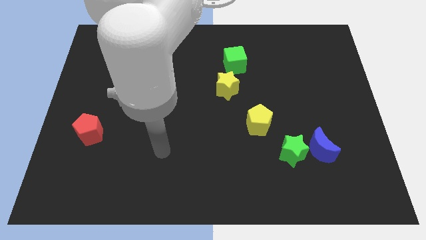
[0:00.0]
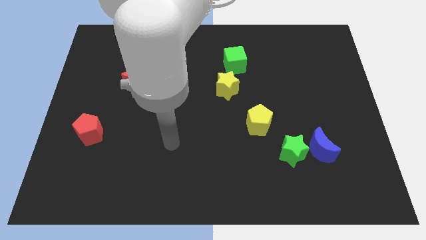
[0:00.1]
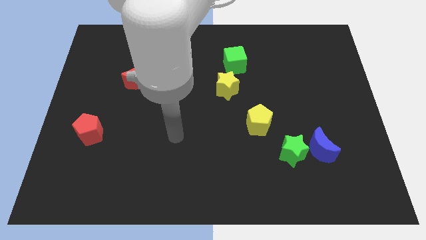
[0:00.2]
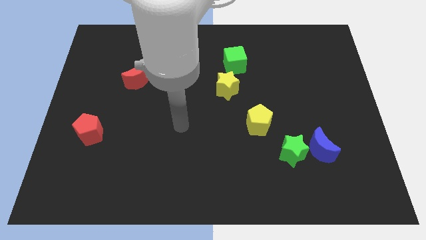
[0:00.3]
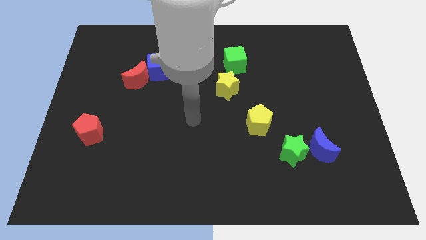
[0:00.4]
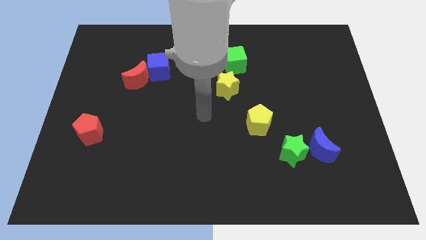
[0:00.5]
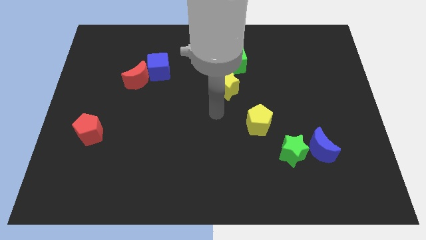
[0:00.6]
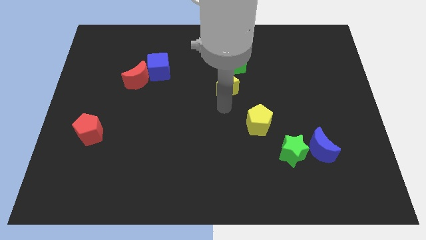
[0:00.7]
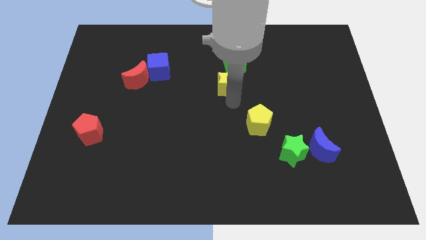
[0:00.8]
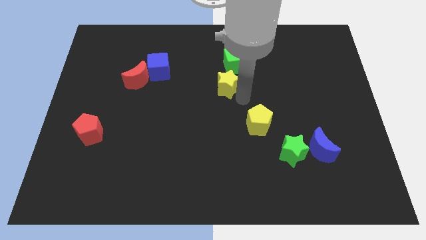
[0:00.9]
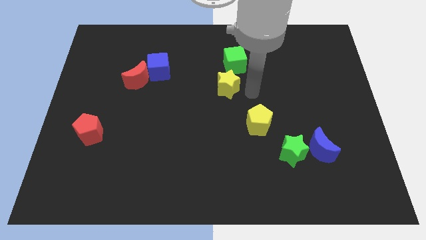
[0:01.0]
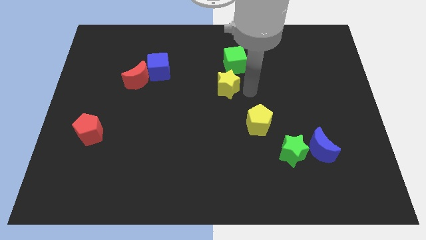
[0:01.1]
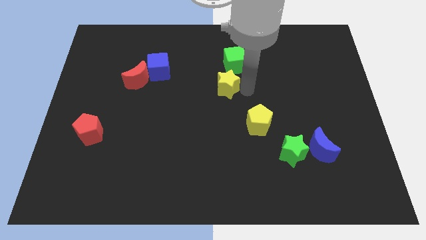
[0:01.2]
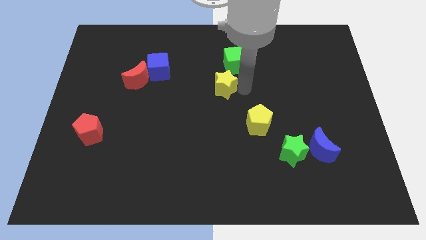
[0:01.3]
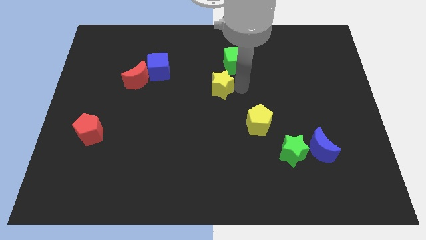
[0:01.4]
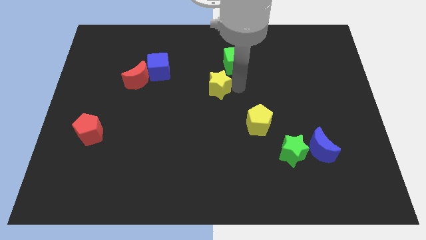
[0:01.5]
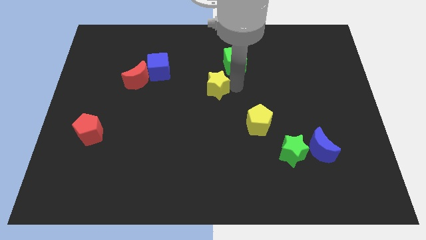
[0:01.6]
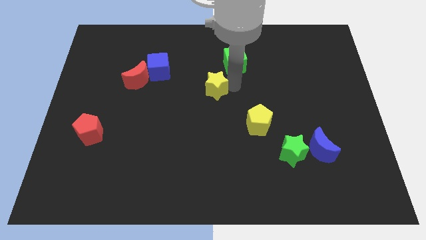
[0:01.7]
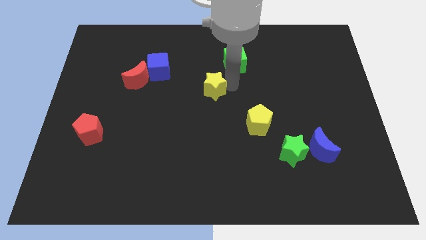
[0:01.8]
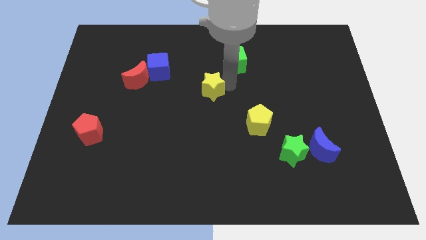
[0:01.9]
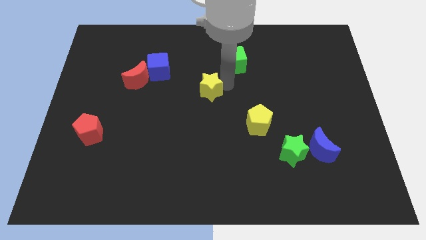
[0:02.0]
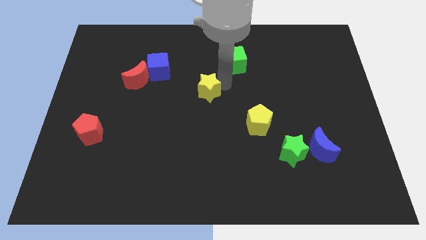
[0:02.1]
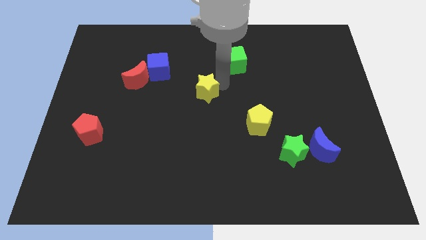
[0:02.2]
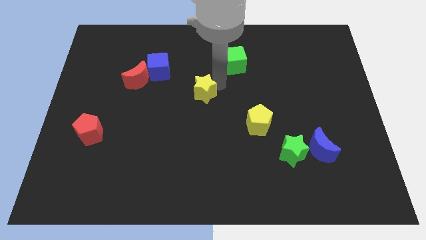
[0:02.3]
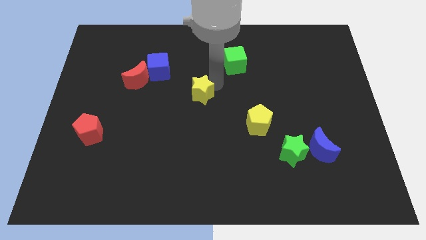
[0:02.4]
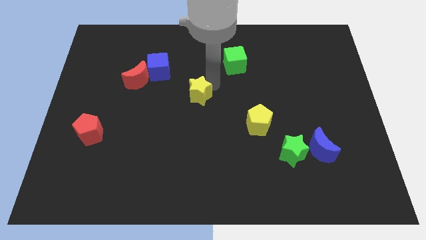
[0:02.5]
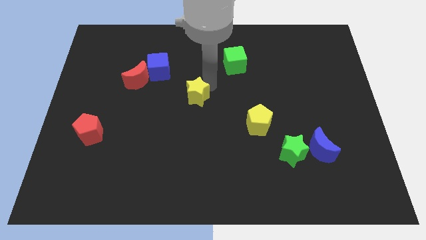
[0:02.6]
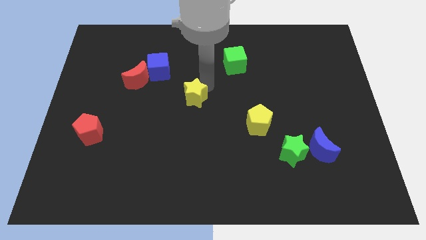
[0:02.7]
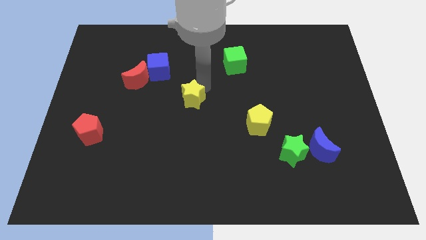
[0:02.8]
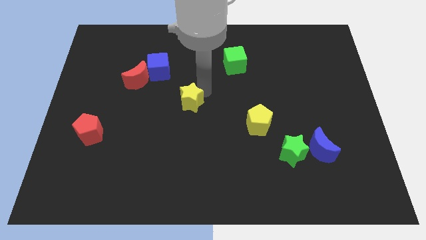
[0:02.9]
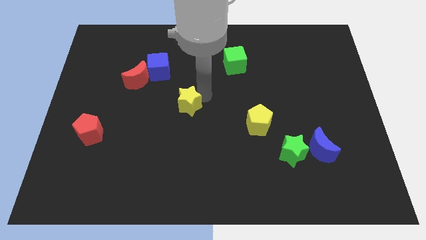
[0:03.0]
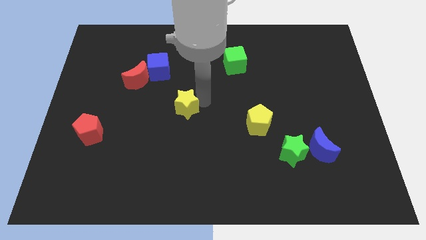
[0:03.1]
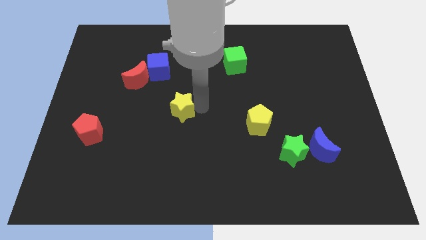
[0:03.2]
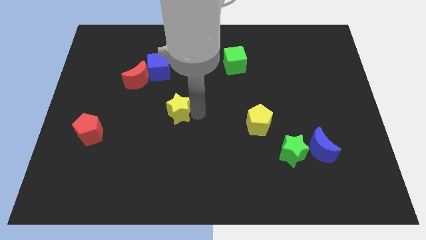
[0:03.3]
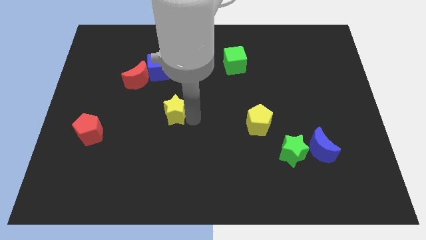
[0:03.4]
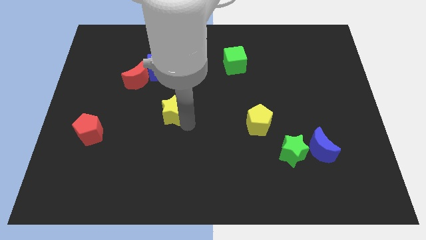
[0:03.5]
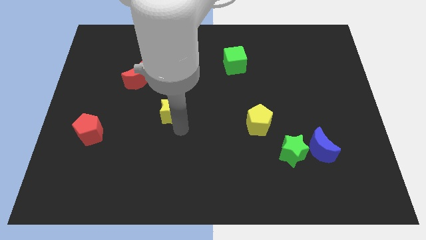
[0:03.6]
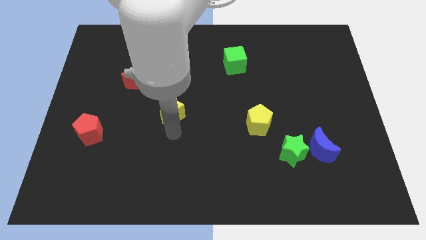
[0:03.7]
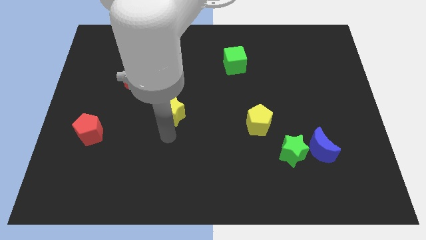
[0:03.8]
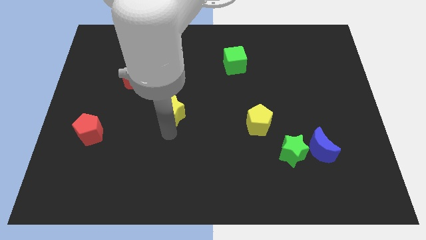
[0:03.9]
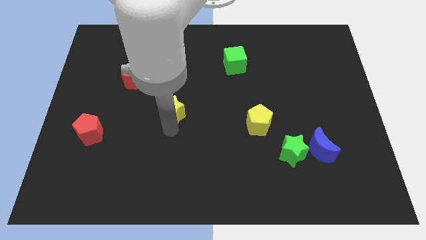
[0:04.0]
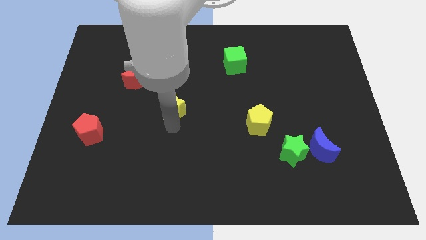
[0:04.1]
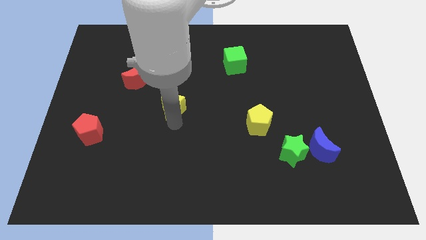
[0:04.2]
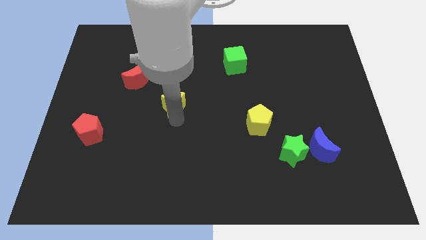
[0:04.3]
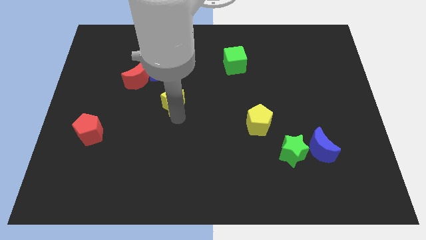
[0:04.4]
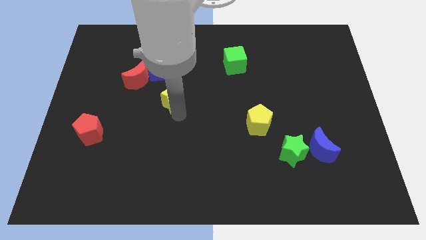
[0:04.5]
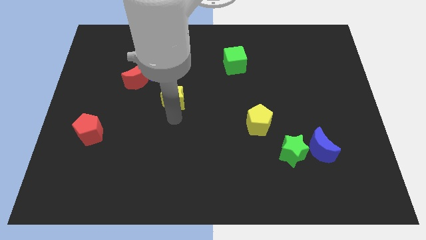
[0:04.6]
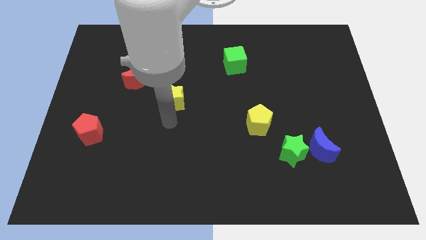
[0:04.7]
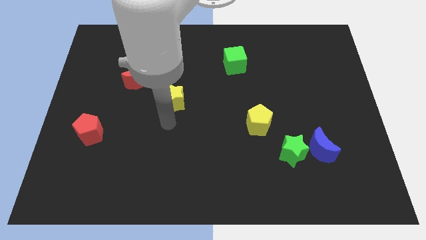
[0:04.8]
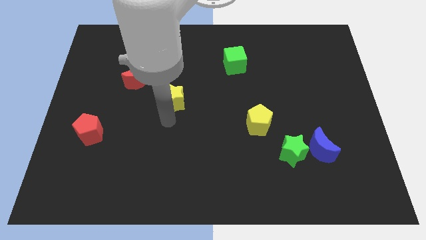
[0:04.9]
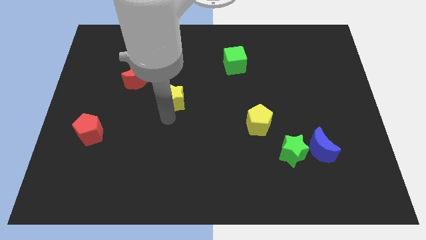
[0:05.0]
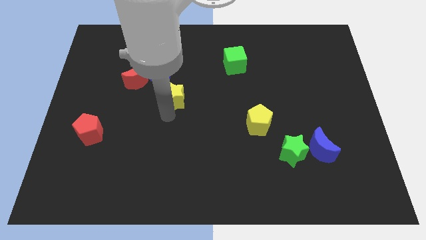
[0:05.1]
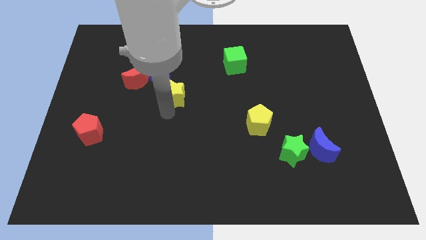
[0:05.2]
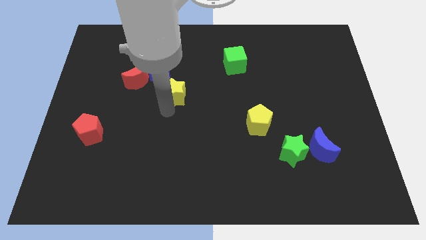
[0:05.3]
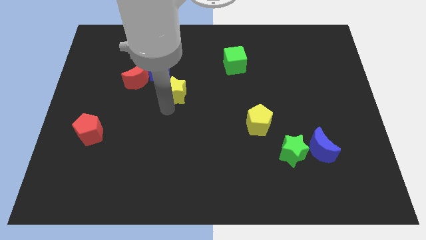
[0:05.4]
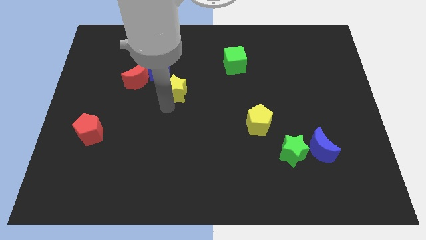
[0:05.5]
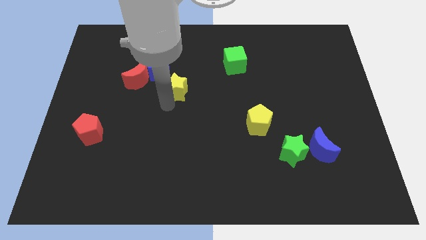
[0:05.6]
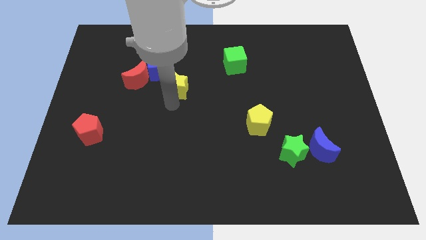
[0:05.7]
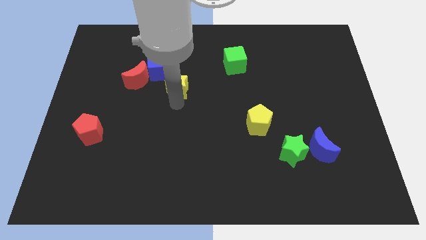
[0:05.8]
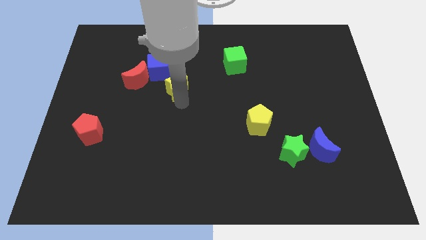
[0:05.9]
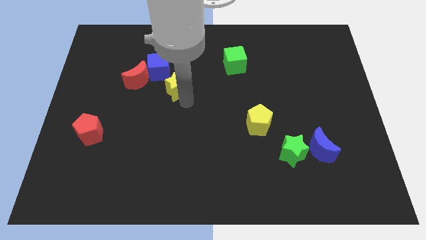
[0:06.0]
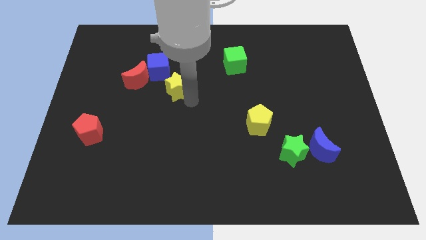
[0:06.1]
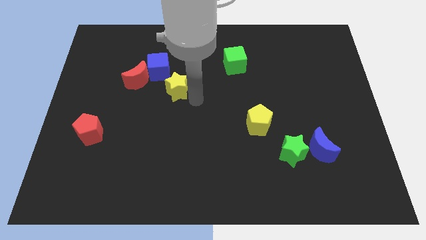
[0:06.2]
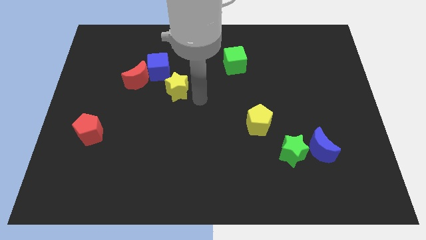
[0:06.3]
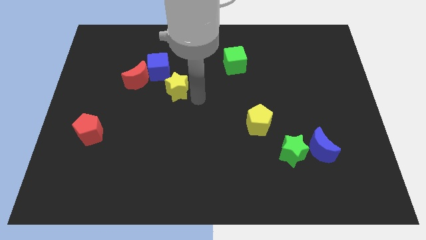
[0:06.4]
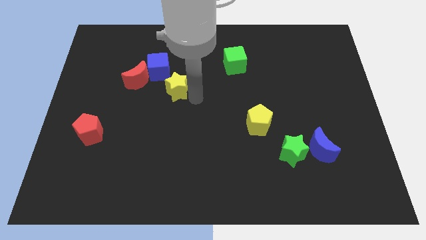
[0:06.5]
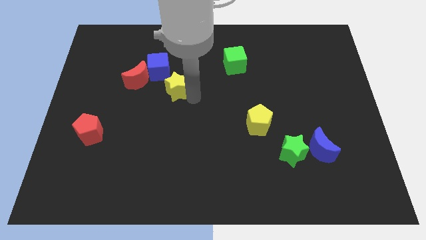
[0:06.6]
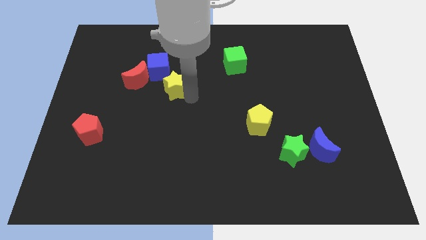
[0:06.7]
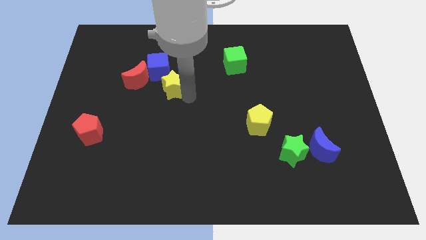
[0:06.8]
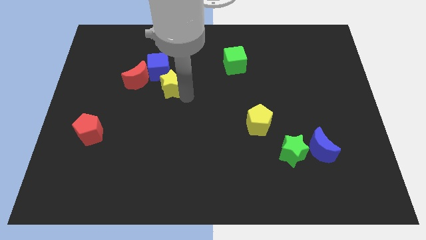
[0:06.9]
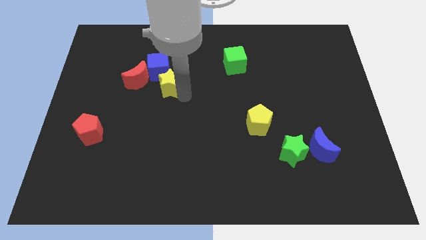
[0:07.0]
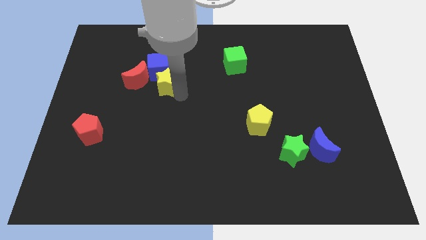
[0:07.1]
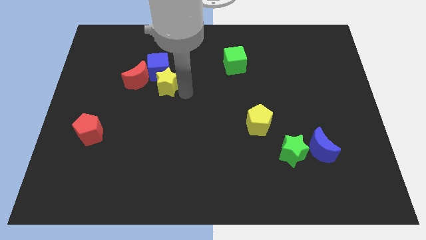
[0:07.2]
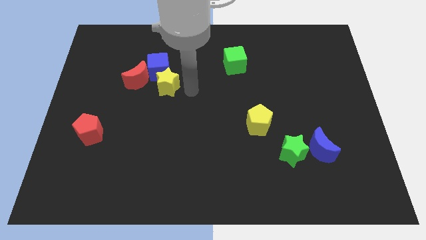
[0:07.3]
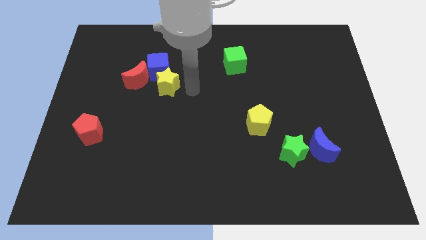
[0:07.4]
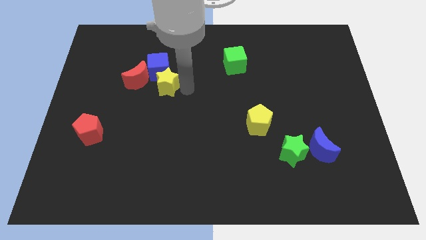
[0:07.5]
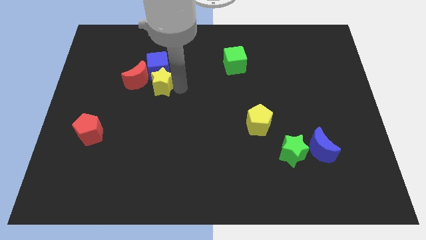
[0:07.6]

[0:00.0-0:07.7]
push the yellow star to the red moon
